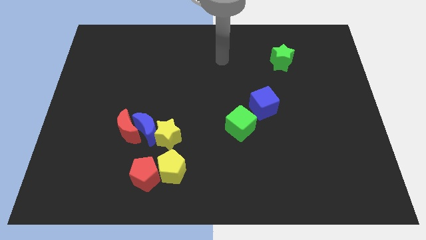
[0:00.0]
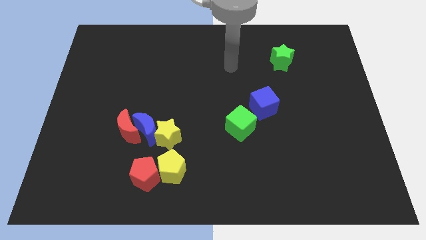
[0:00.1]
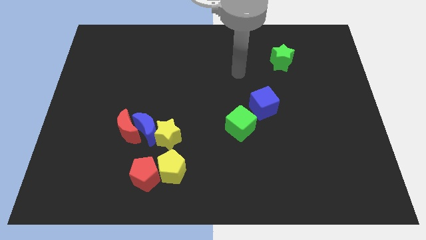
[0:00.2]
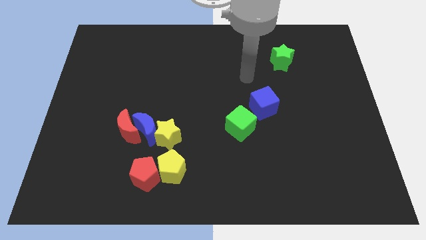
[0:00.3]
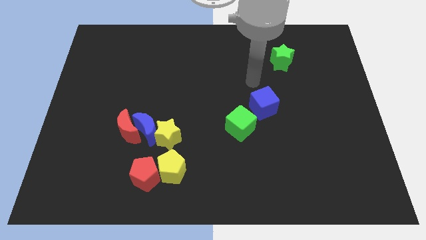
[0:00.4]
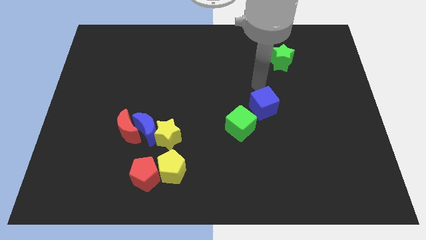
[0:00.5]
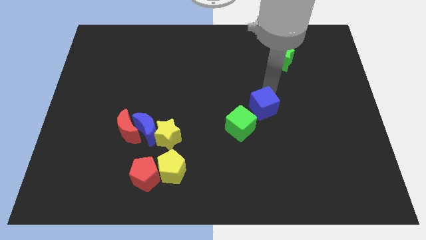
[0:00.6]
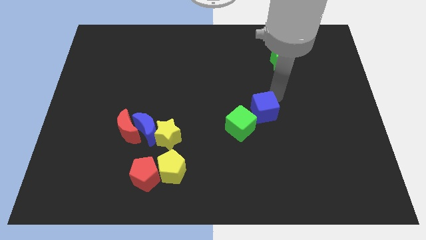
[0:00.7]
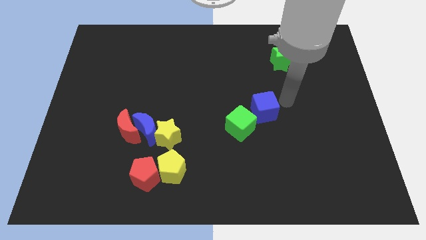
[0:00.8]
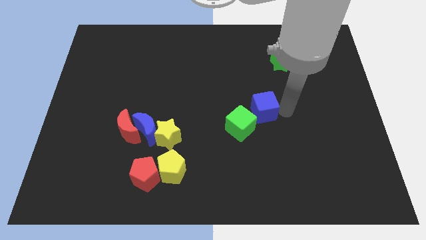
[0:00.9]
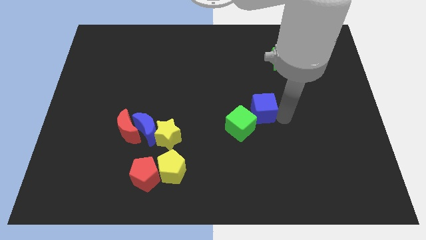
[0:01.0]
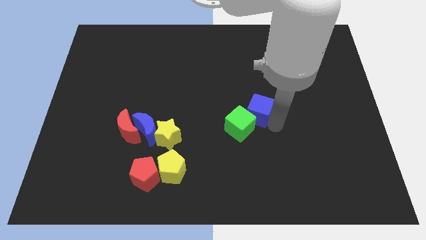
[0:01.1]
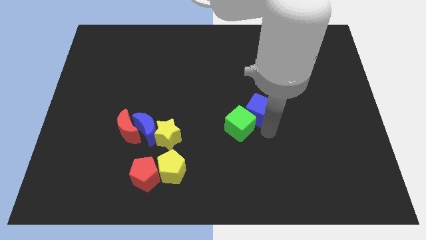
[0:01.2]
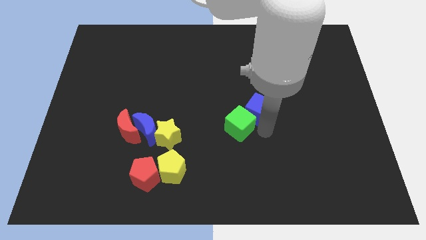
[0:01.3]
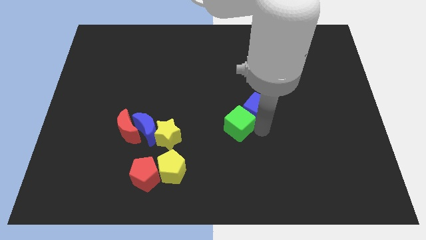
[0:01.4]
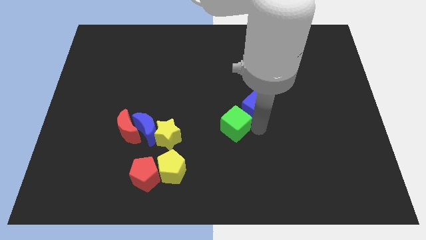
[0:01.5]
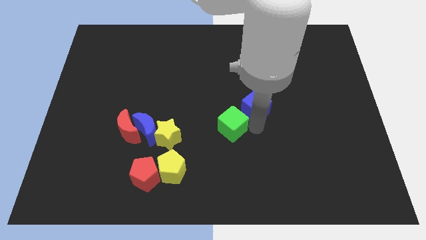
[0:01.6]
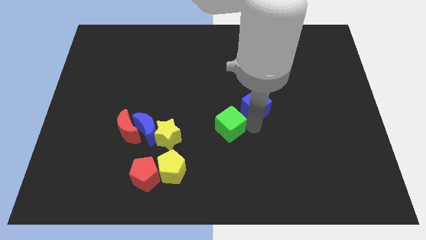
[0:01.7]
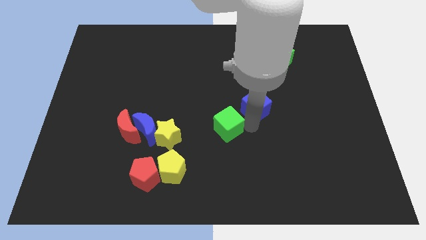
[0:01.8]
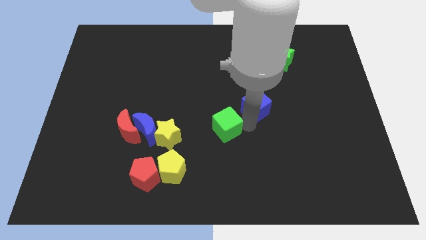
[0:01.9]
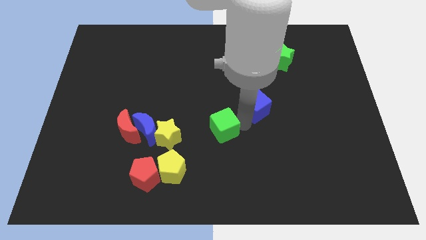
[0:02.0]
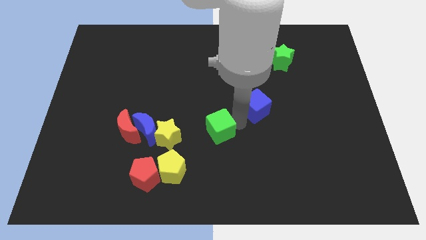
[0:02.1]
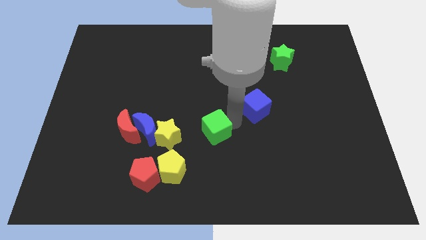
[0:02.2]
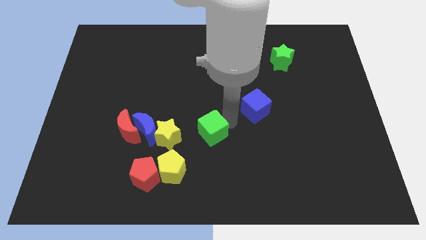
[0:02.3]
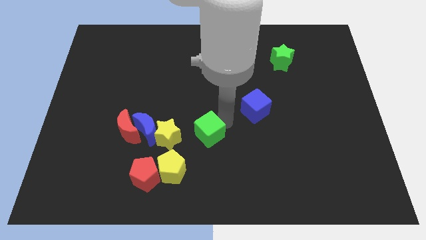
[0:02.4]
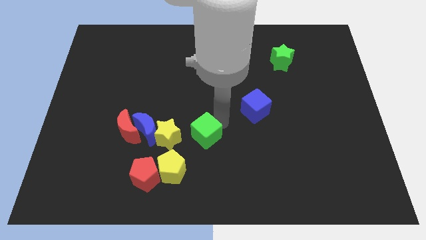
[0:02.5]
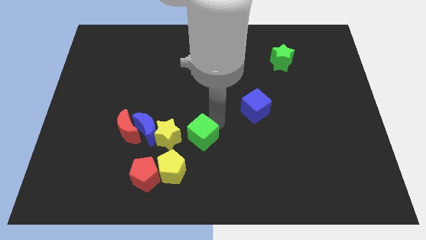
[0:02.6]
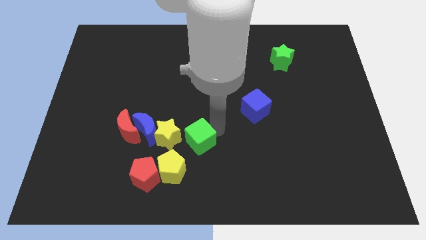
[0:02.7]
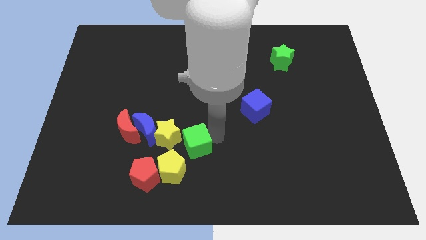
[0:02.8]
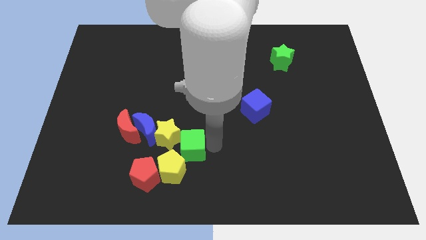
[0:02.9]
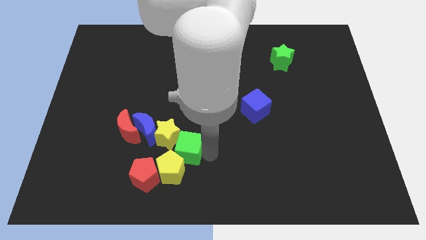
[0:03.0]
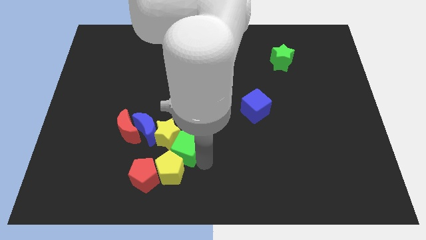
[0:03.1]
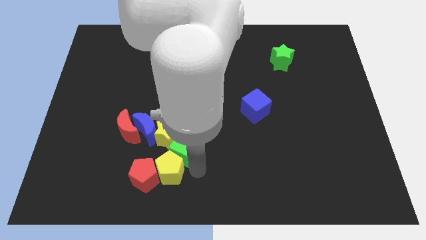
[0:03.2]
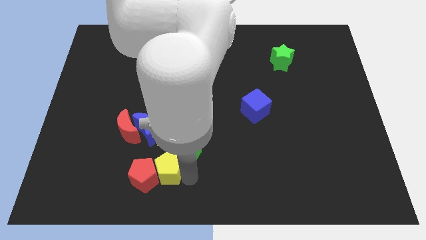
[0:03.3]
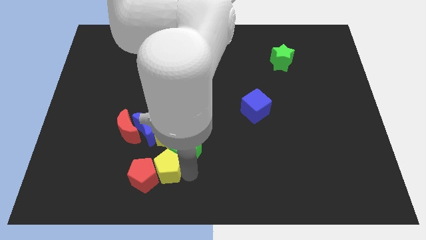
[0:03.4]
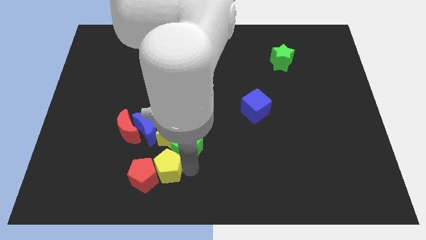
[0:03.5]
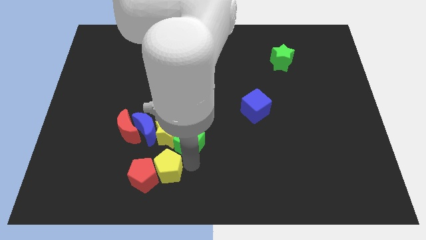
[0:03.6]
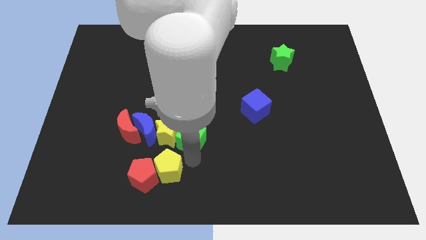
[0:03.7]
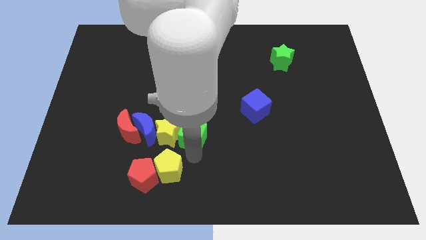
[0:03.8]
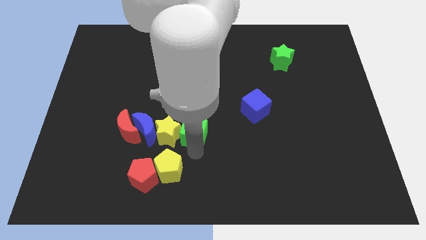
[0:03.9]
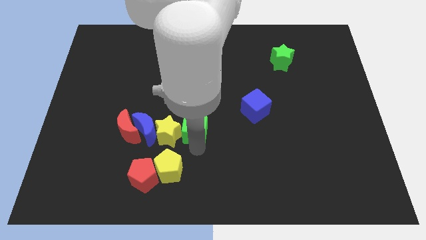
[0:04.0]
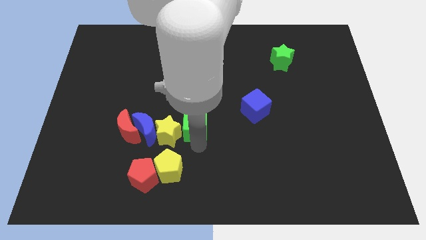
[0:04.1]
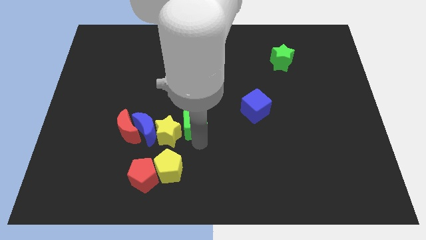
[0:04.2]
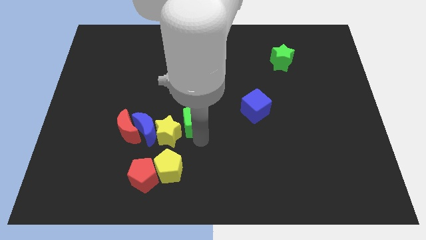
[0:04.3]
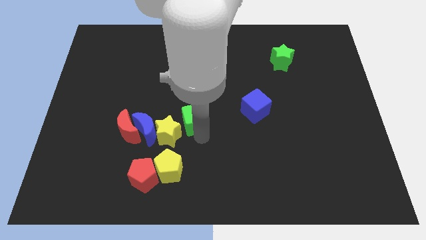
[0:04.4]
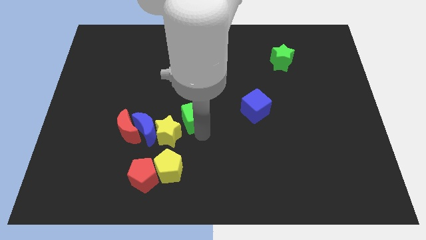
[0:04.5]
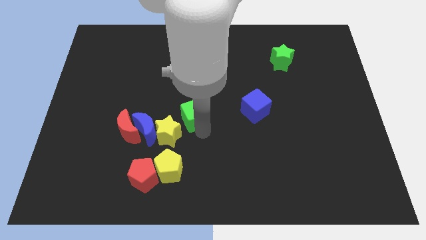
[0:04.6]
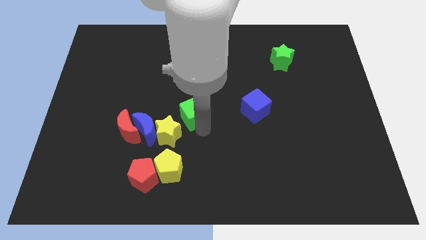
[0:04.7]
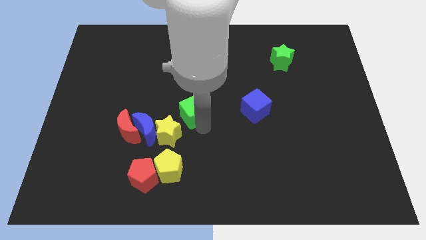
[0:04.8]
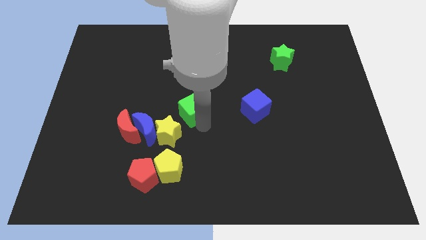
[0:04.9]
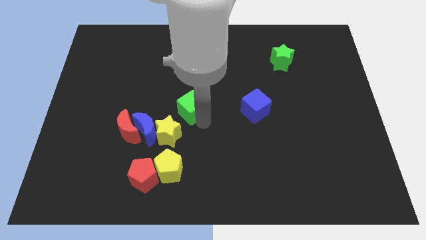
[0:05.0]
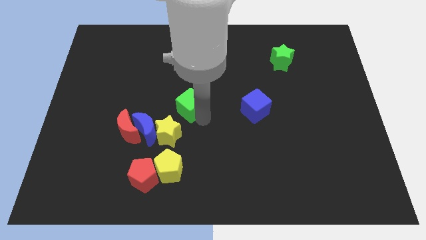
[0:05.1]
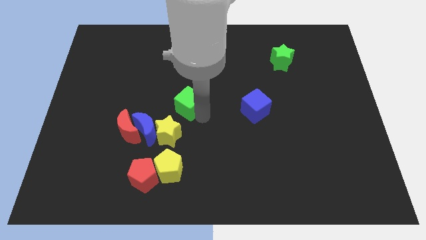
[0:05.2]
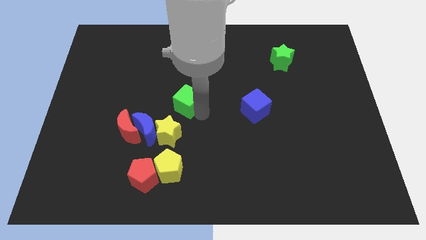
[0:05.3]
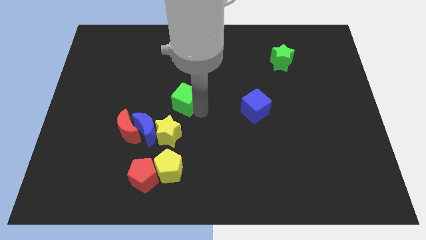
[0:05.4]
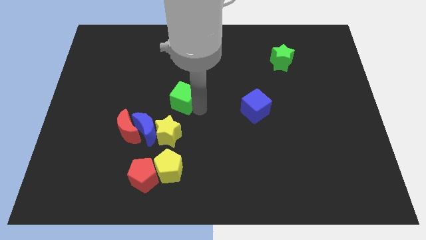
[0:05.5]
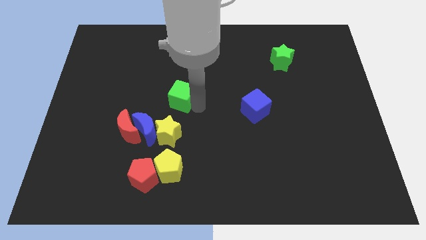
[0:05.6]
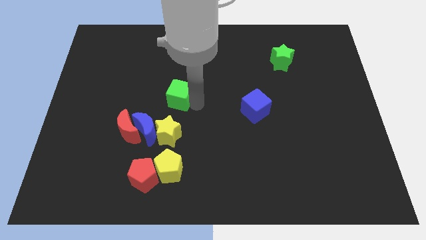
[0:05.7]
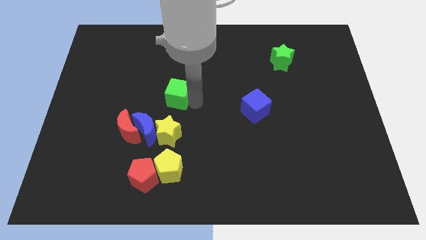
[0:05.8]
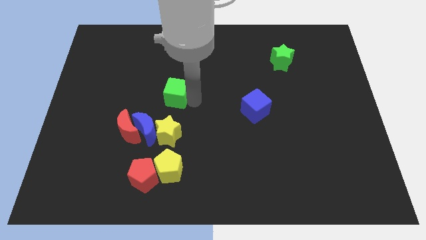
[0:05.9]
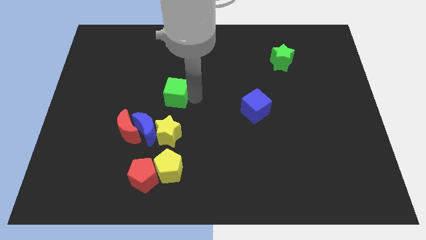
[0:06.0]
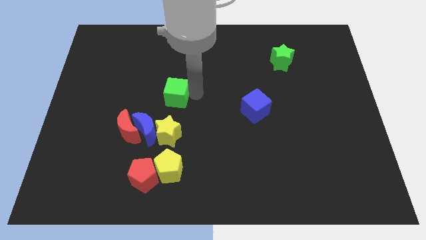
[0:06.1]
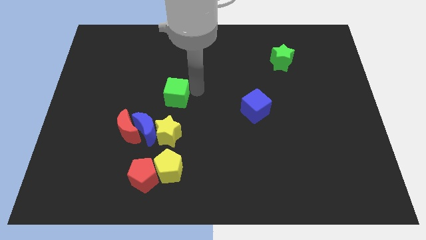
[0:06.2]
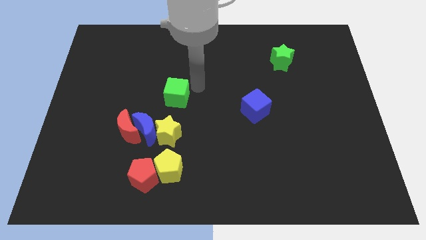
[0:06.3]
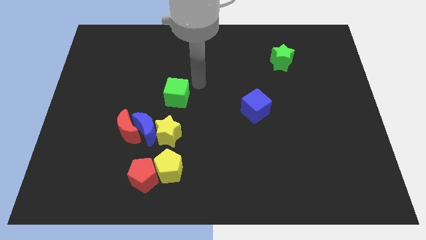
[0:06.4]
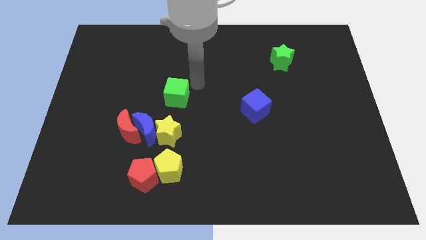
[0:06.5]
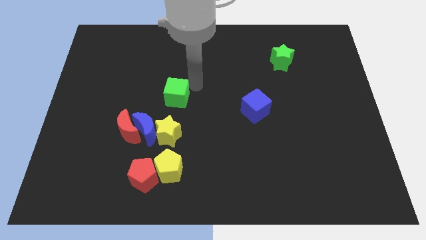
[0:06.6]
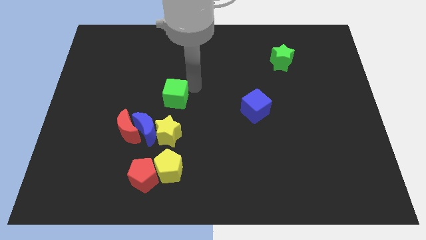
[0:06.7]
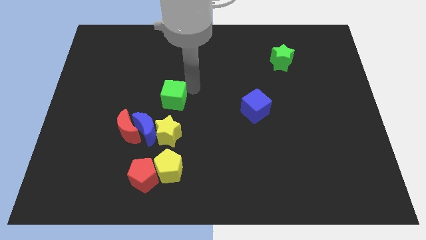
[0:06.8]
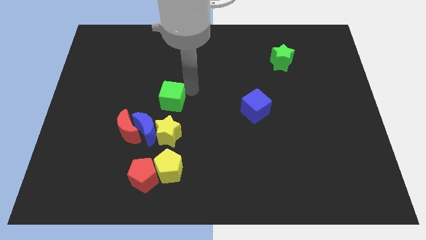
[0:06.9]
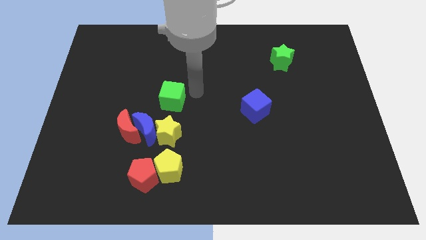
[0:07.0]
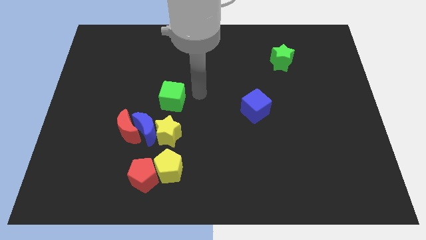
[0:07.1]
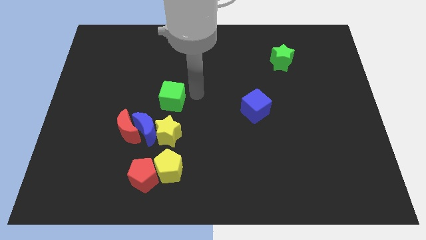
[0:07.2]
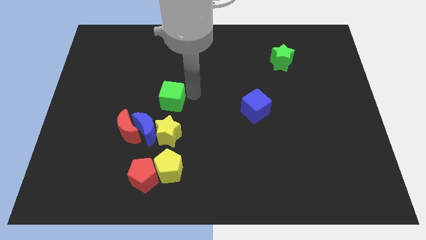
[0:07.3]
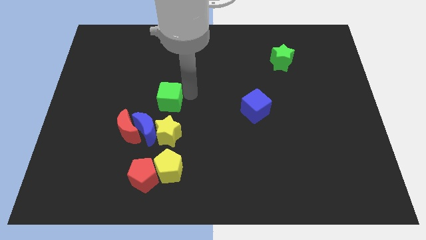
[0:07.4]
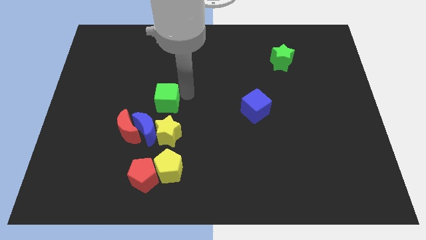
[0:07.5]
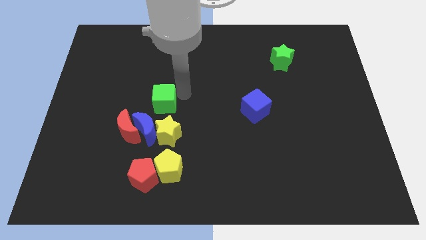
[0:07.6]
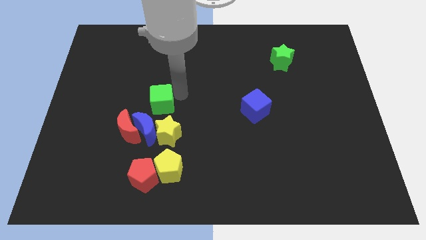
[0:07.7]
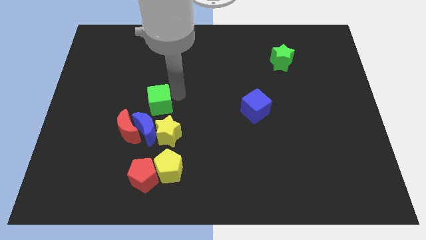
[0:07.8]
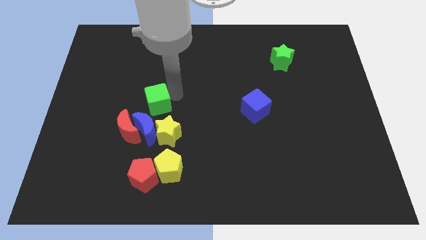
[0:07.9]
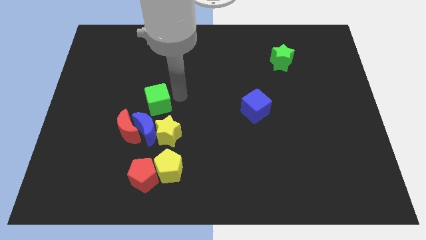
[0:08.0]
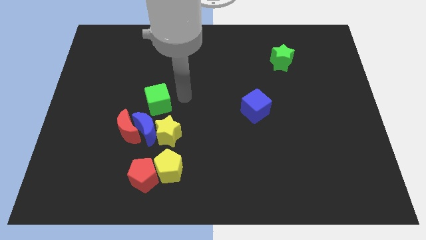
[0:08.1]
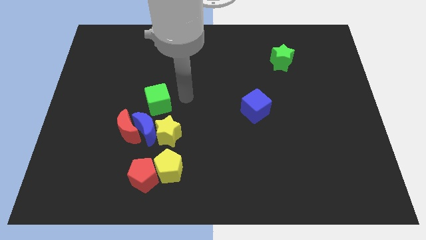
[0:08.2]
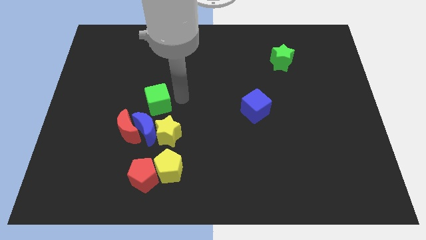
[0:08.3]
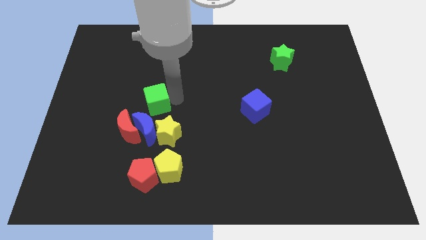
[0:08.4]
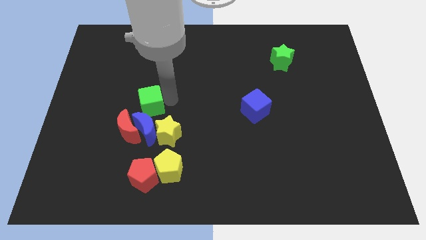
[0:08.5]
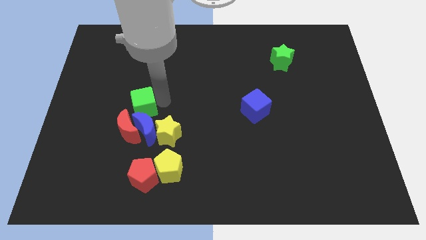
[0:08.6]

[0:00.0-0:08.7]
move the green cube left
